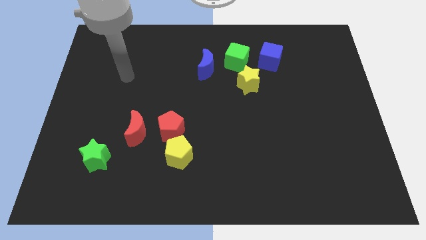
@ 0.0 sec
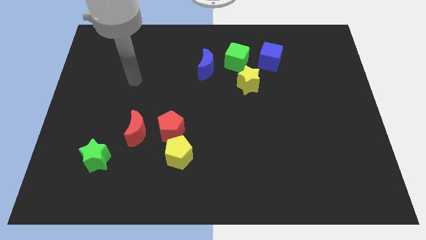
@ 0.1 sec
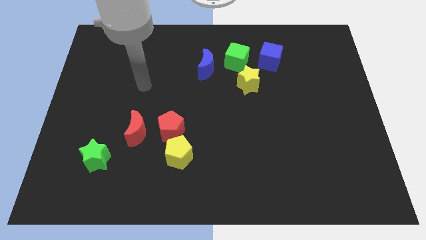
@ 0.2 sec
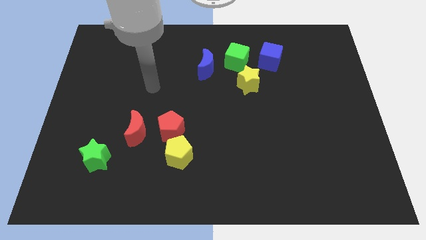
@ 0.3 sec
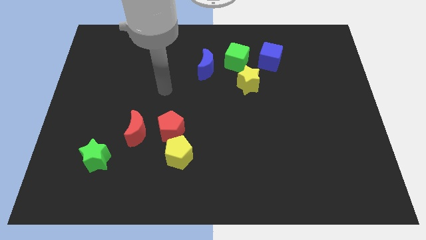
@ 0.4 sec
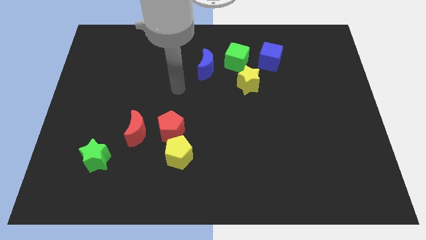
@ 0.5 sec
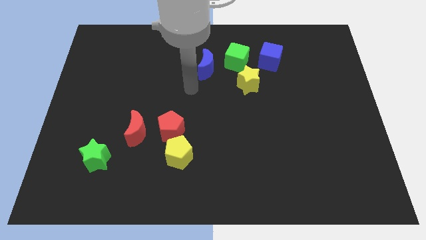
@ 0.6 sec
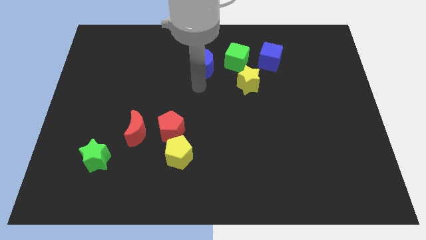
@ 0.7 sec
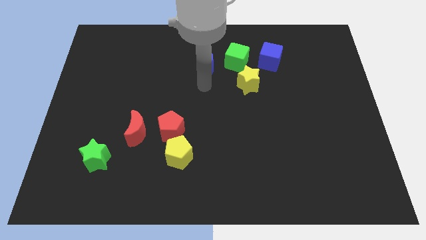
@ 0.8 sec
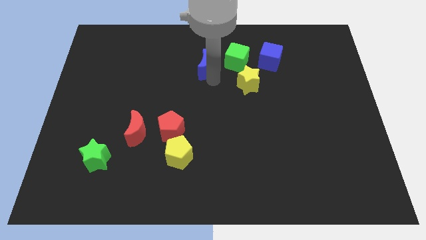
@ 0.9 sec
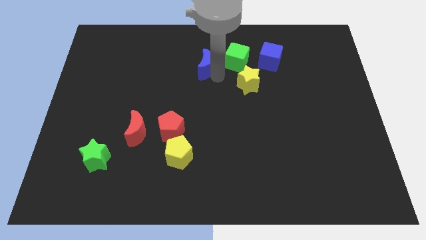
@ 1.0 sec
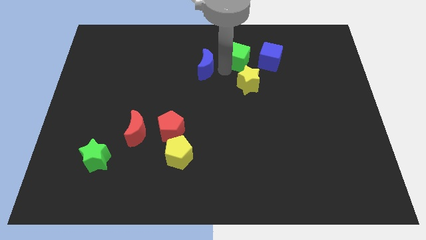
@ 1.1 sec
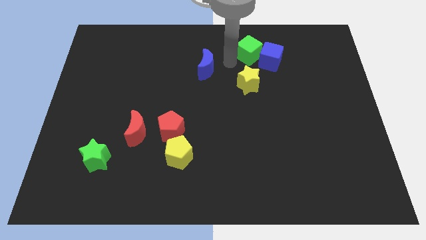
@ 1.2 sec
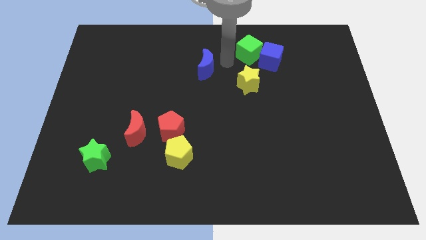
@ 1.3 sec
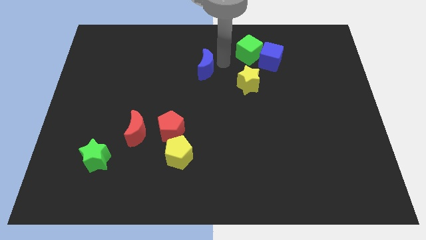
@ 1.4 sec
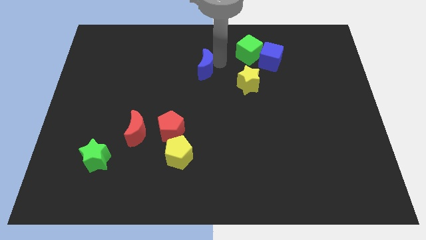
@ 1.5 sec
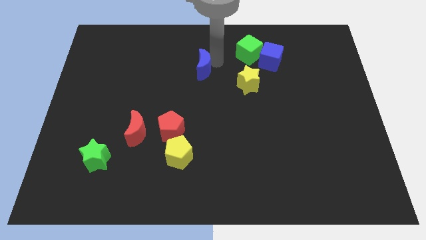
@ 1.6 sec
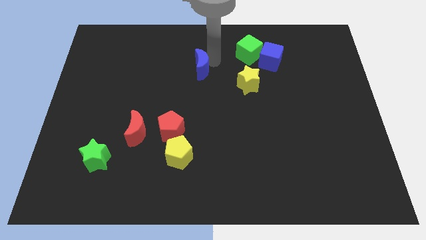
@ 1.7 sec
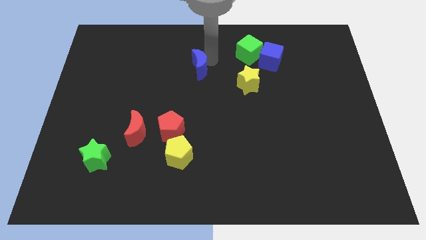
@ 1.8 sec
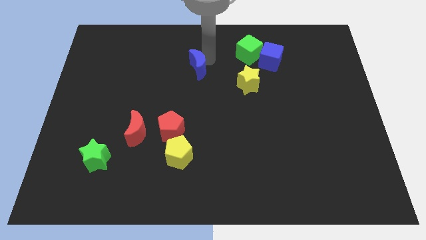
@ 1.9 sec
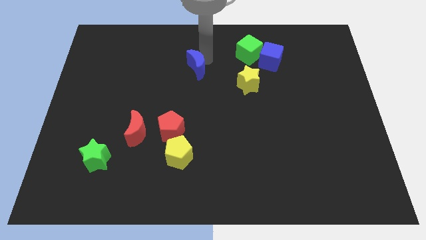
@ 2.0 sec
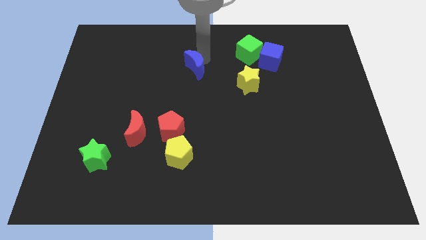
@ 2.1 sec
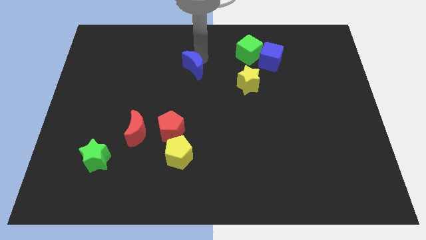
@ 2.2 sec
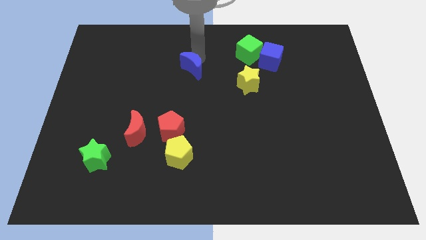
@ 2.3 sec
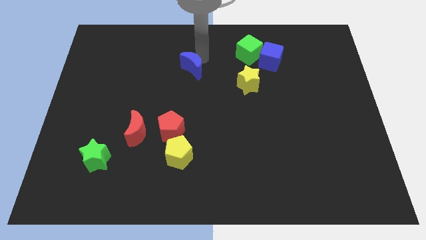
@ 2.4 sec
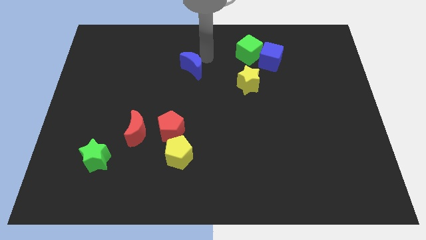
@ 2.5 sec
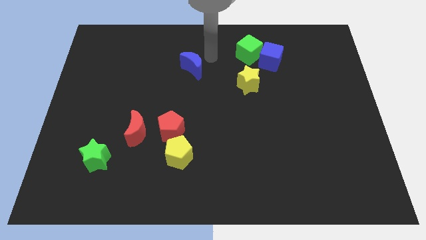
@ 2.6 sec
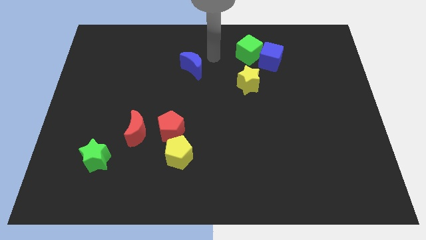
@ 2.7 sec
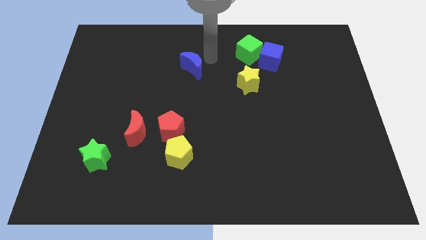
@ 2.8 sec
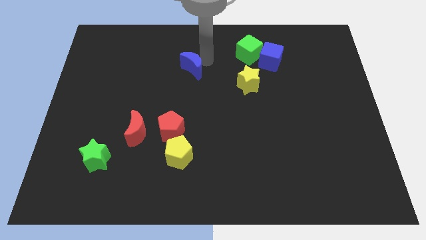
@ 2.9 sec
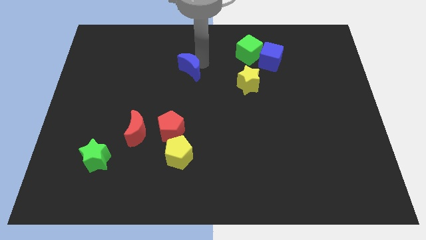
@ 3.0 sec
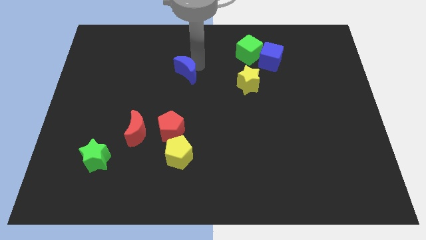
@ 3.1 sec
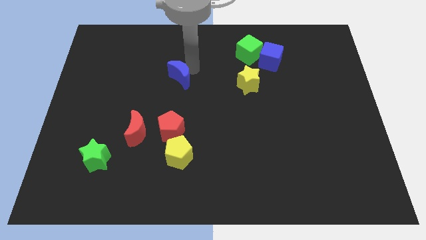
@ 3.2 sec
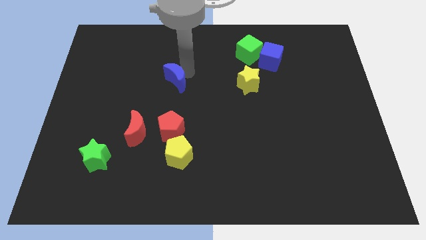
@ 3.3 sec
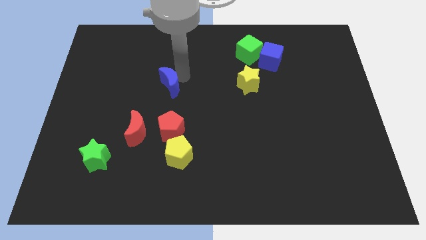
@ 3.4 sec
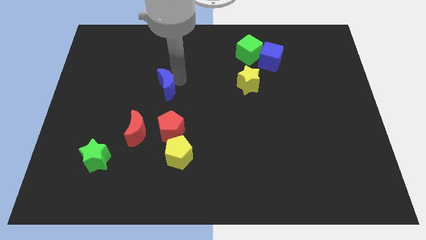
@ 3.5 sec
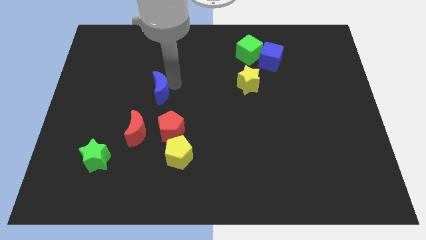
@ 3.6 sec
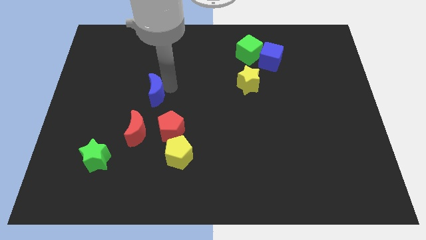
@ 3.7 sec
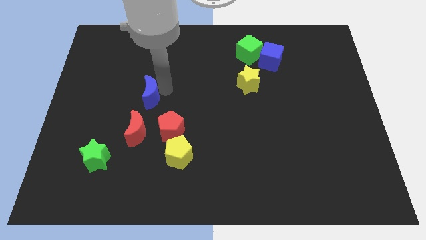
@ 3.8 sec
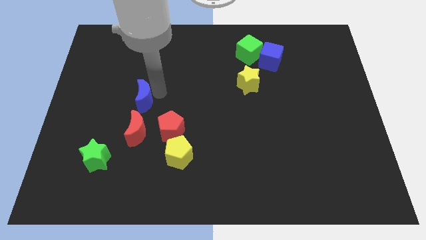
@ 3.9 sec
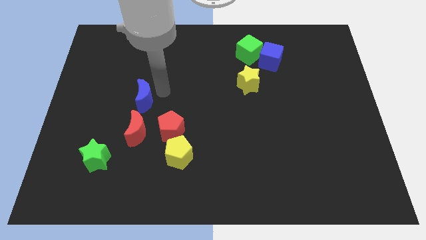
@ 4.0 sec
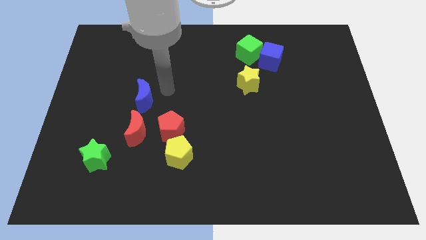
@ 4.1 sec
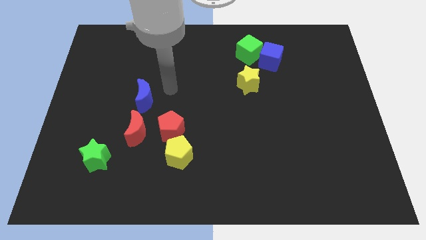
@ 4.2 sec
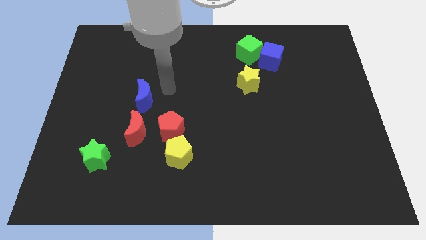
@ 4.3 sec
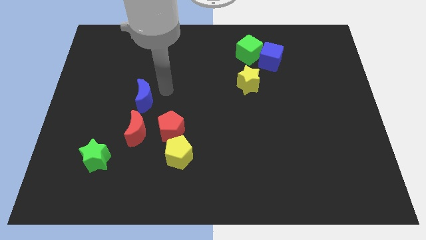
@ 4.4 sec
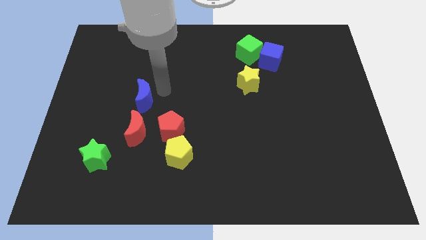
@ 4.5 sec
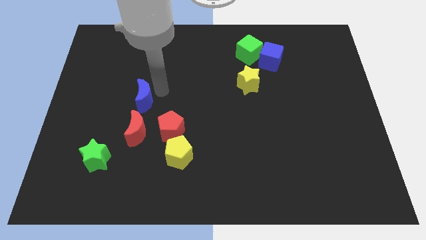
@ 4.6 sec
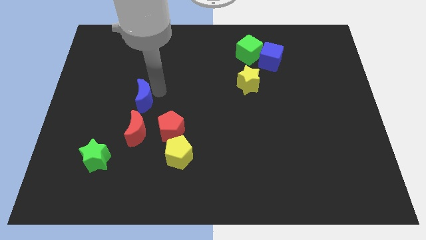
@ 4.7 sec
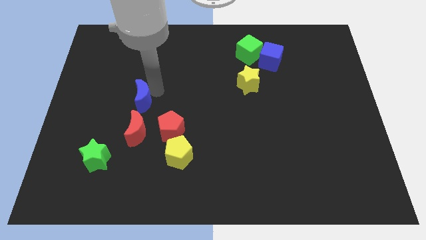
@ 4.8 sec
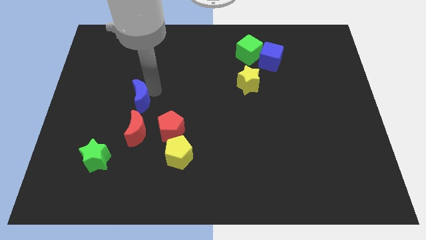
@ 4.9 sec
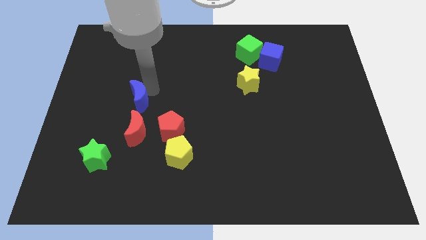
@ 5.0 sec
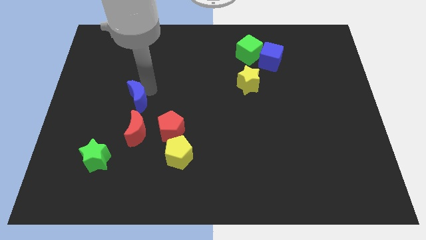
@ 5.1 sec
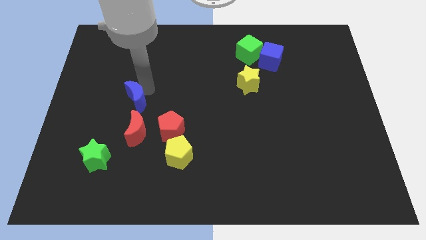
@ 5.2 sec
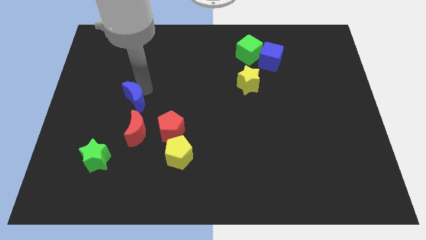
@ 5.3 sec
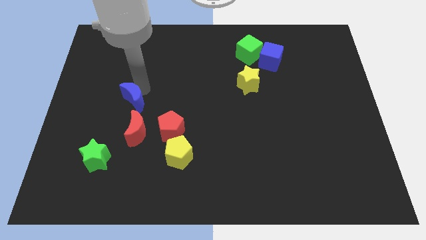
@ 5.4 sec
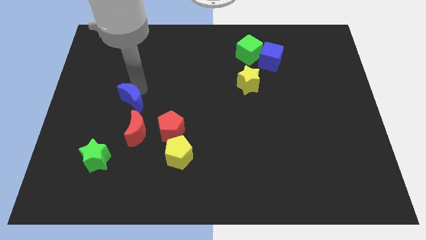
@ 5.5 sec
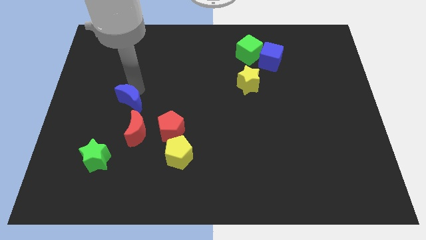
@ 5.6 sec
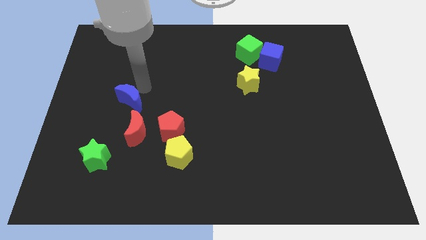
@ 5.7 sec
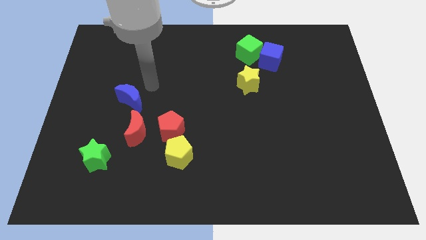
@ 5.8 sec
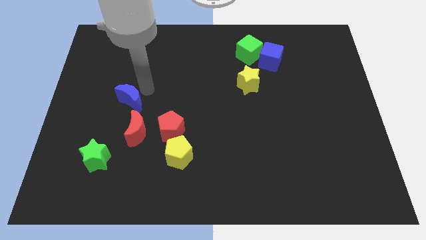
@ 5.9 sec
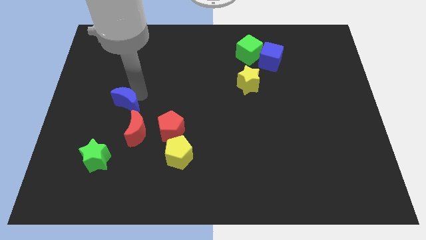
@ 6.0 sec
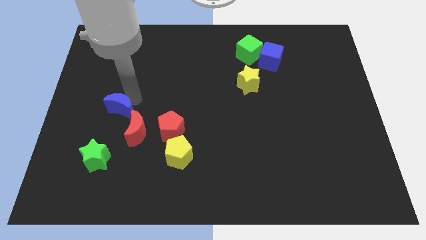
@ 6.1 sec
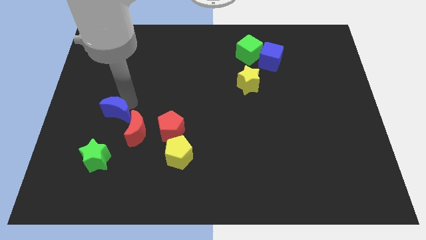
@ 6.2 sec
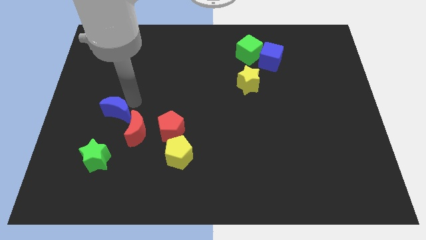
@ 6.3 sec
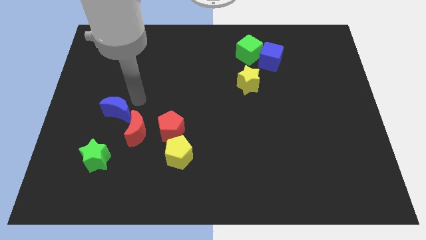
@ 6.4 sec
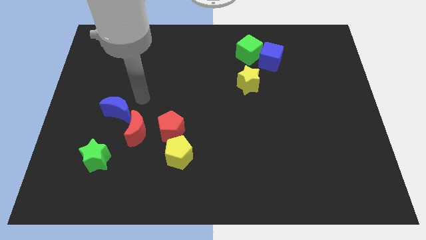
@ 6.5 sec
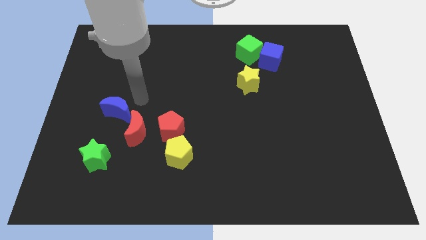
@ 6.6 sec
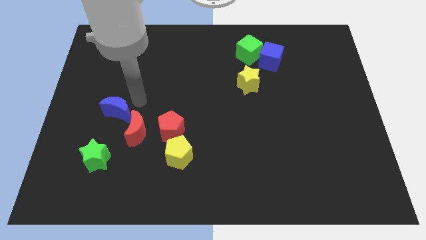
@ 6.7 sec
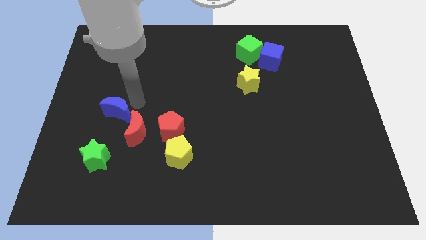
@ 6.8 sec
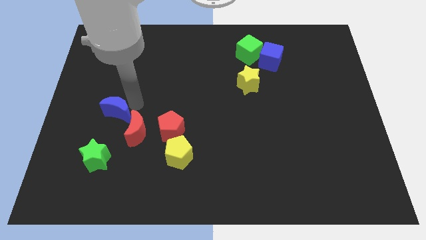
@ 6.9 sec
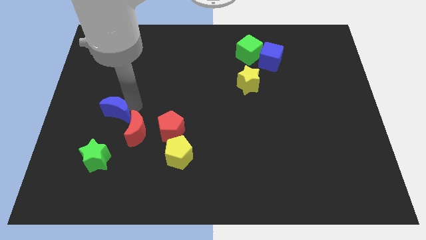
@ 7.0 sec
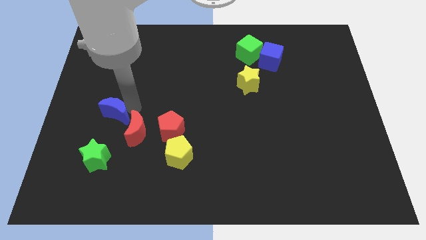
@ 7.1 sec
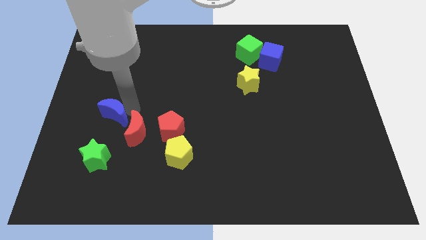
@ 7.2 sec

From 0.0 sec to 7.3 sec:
slide the blue moon left of the red moon
